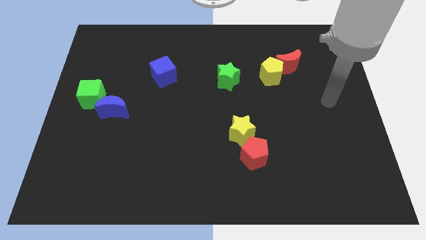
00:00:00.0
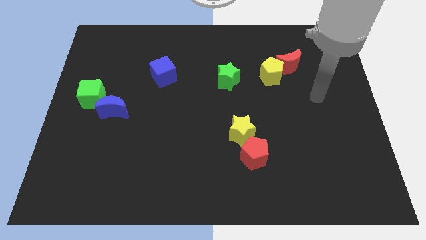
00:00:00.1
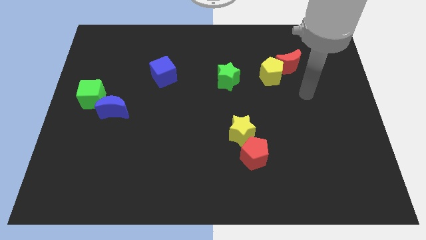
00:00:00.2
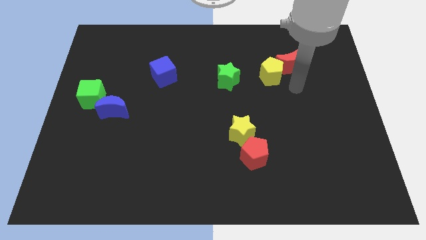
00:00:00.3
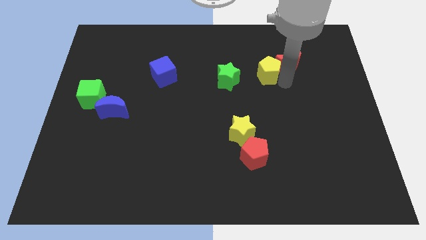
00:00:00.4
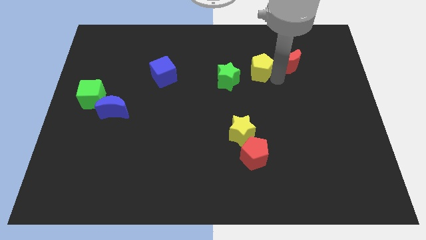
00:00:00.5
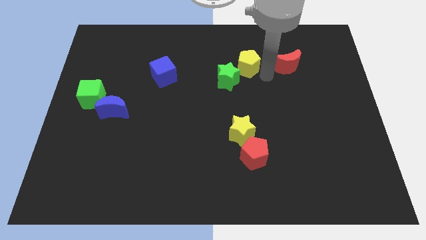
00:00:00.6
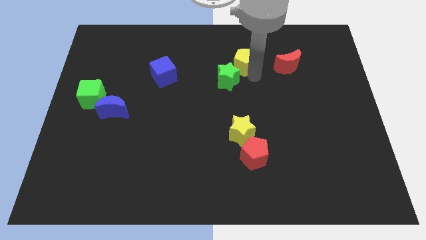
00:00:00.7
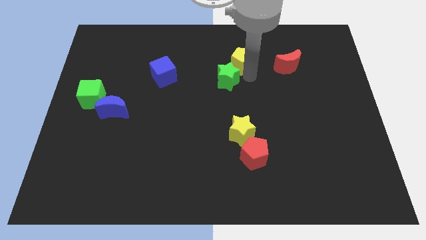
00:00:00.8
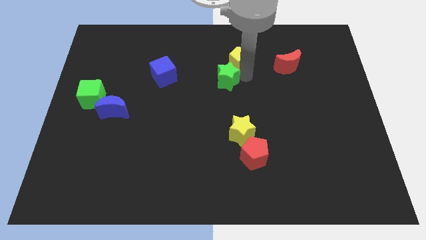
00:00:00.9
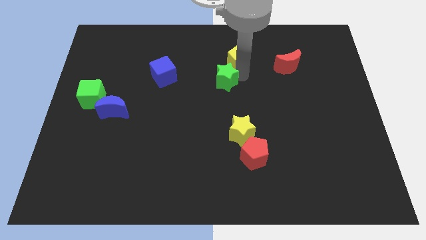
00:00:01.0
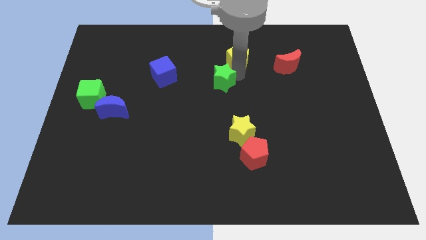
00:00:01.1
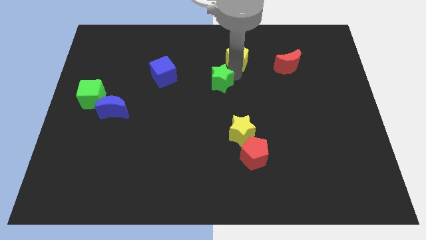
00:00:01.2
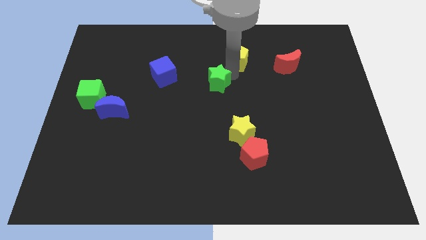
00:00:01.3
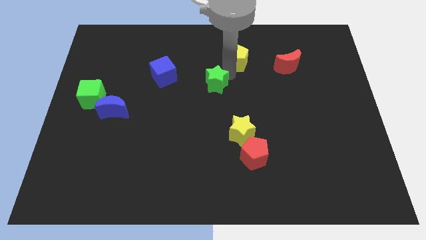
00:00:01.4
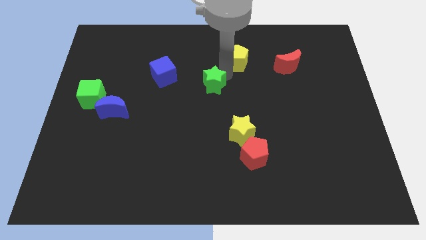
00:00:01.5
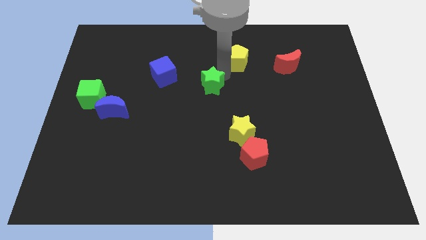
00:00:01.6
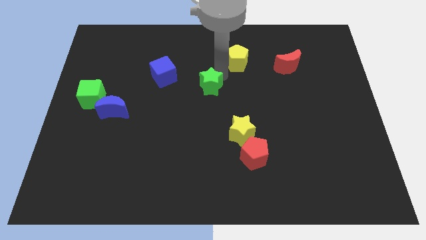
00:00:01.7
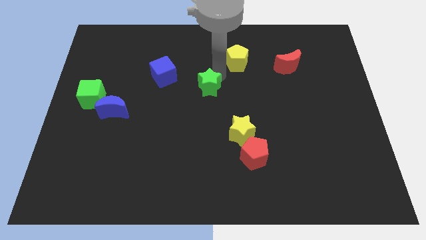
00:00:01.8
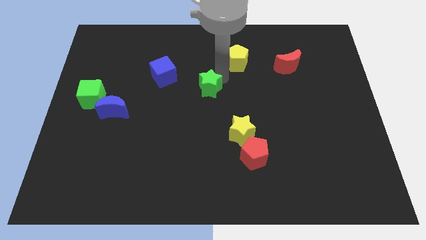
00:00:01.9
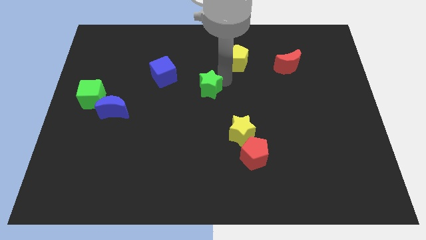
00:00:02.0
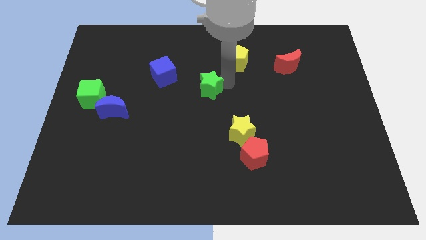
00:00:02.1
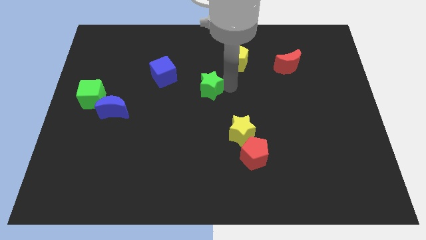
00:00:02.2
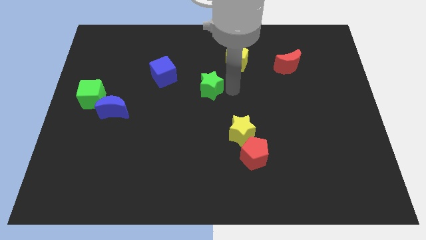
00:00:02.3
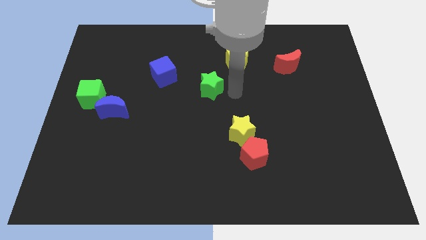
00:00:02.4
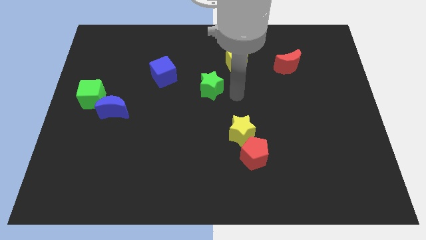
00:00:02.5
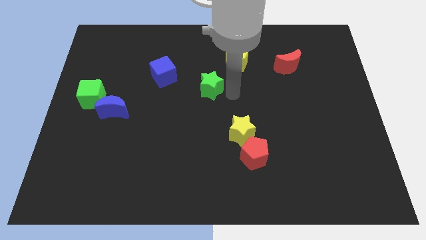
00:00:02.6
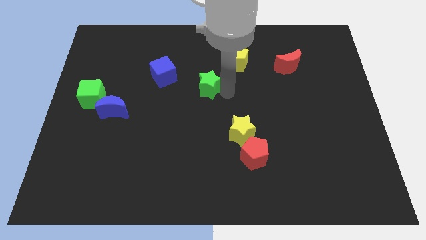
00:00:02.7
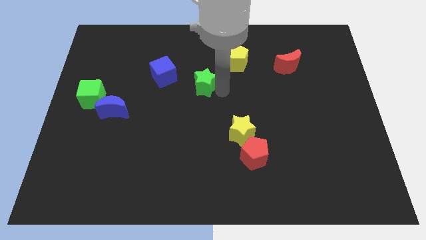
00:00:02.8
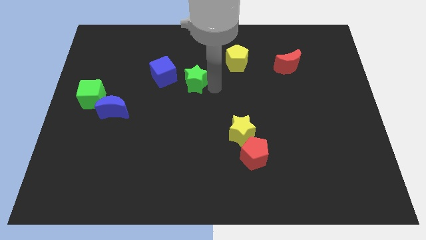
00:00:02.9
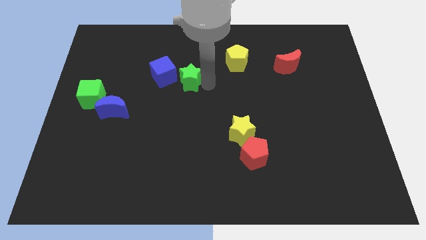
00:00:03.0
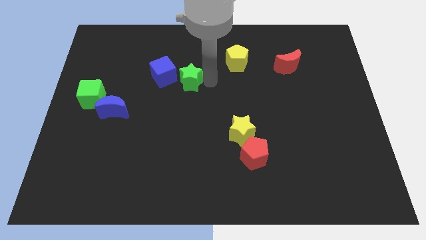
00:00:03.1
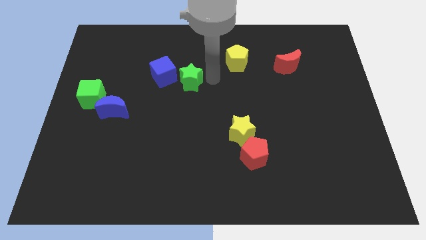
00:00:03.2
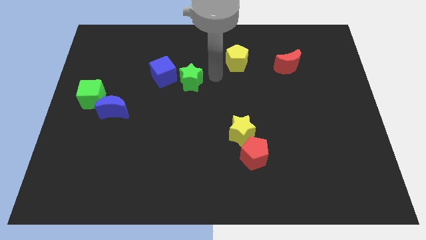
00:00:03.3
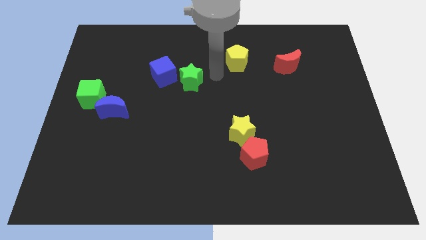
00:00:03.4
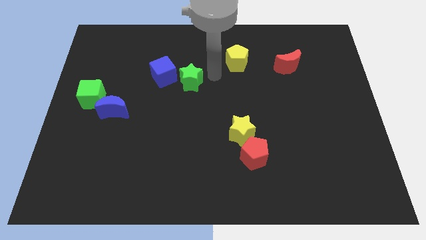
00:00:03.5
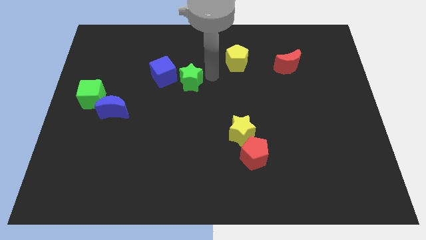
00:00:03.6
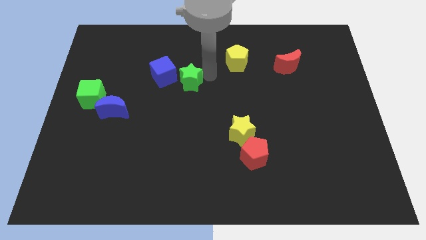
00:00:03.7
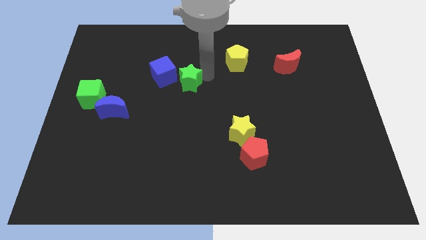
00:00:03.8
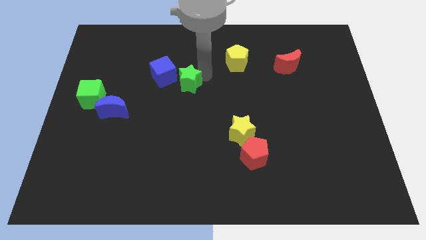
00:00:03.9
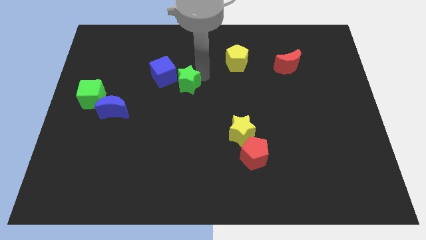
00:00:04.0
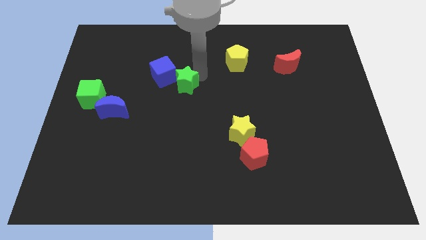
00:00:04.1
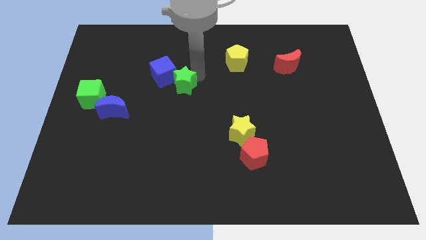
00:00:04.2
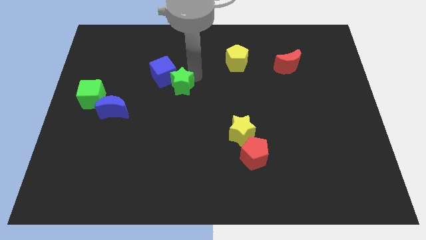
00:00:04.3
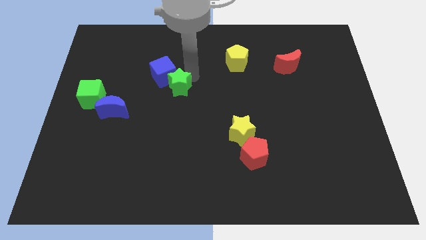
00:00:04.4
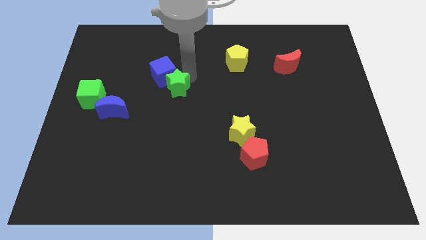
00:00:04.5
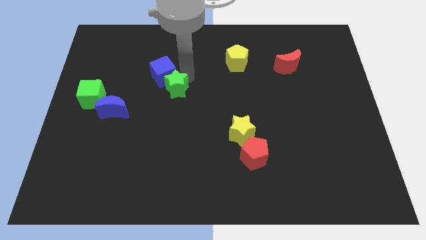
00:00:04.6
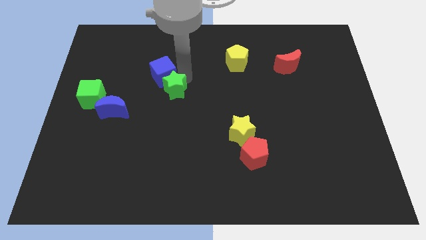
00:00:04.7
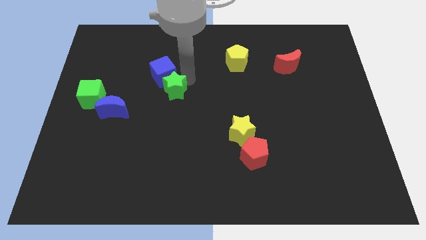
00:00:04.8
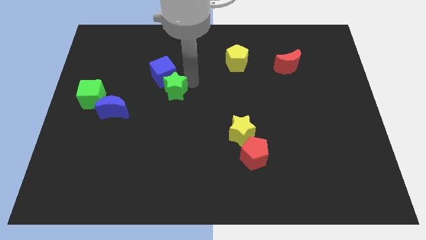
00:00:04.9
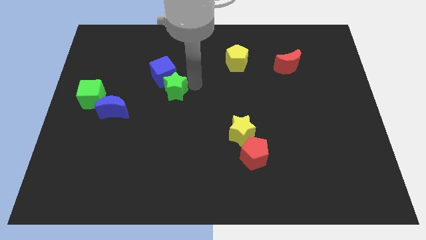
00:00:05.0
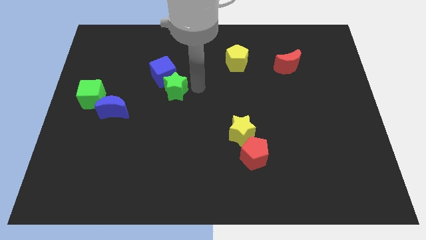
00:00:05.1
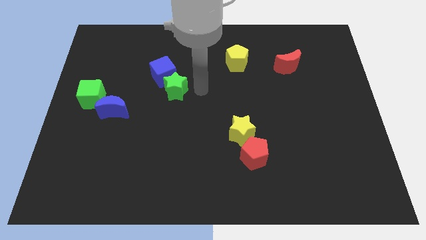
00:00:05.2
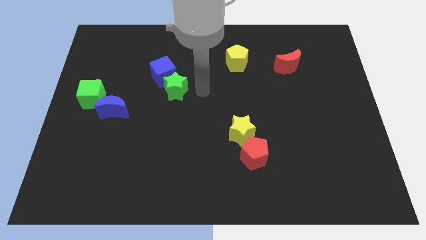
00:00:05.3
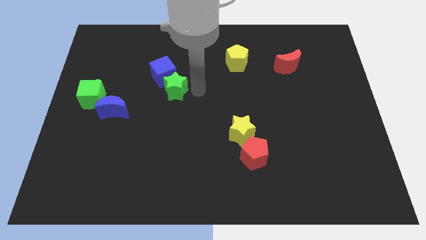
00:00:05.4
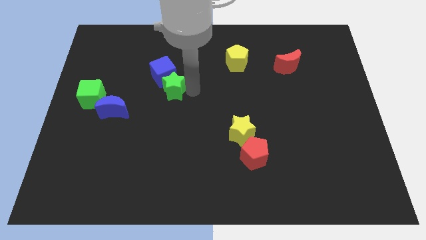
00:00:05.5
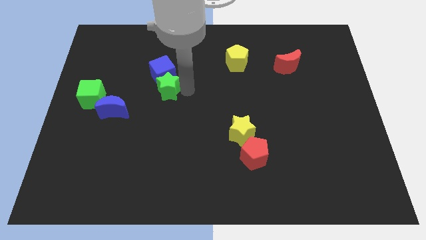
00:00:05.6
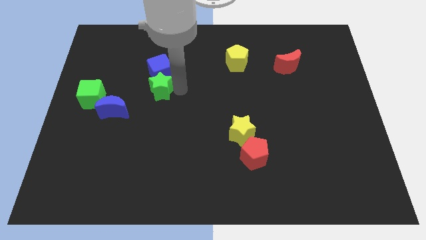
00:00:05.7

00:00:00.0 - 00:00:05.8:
slide the green star to the top right side of the blue moon
